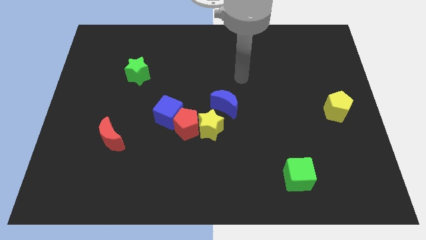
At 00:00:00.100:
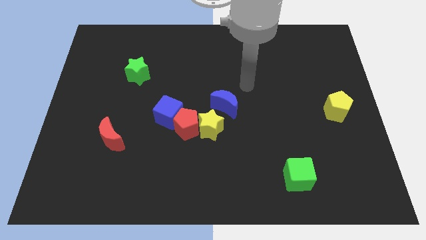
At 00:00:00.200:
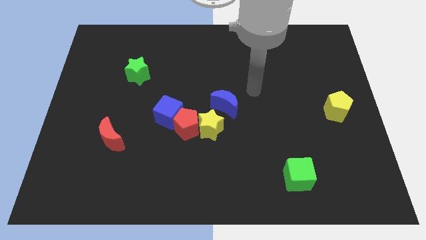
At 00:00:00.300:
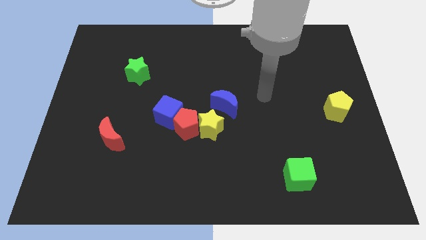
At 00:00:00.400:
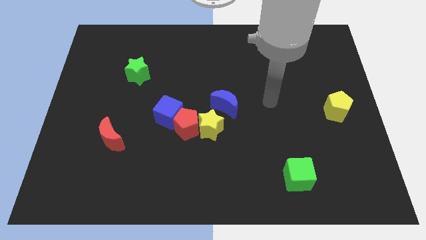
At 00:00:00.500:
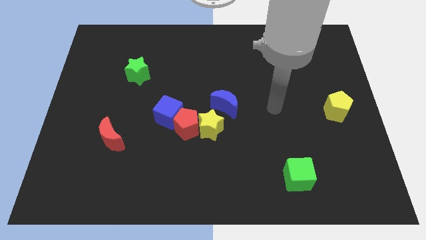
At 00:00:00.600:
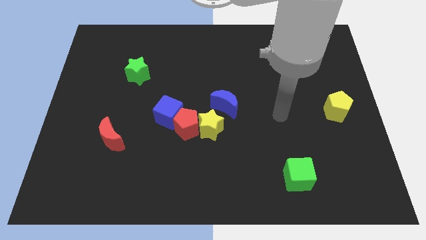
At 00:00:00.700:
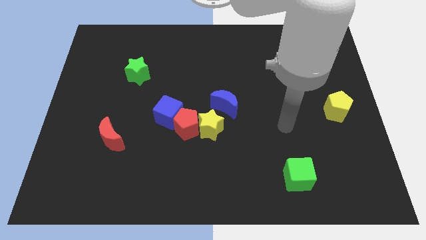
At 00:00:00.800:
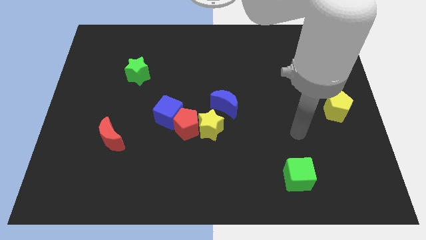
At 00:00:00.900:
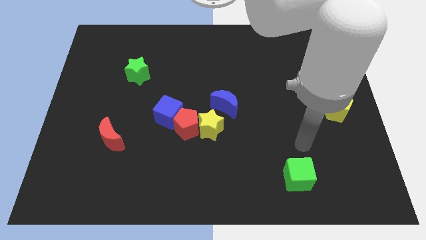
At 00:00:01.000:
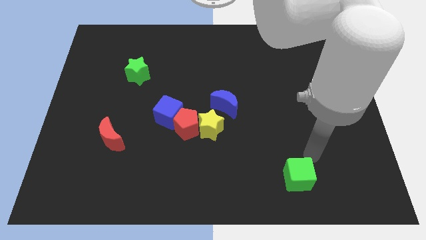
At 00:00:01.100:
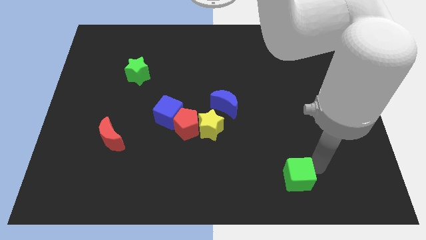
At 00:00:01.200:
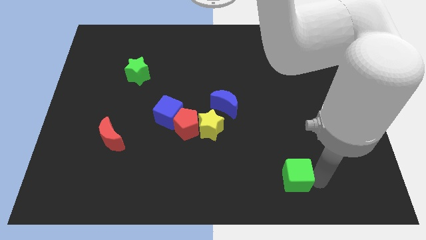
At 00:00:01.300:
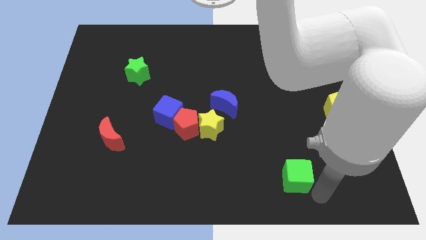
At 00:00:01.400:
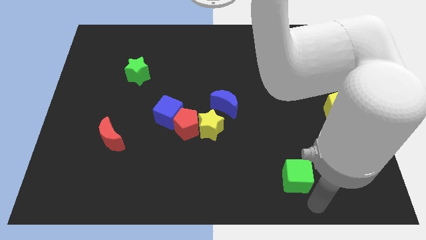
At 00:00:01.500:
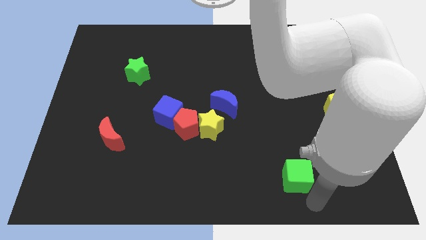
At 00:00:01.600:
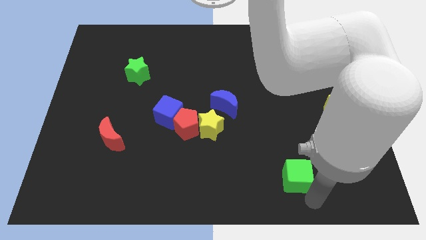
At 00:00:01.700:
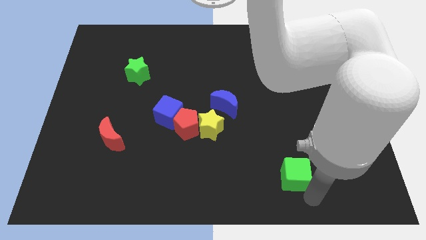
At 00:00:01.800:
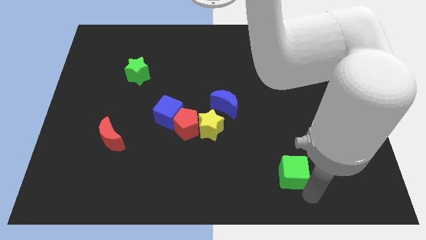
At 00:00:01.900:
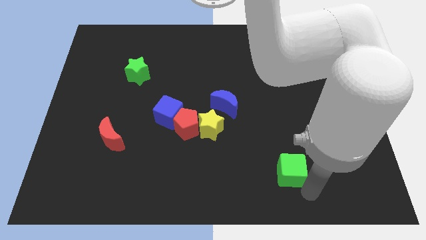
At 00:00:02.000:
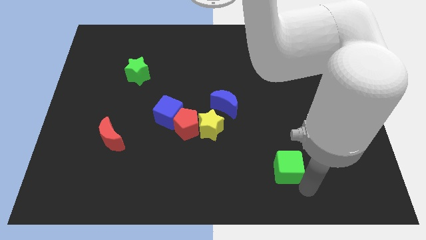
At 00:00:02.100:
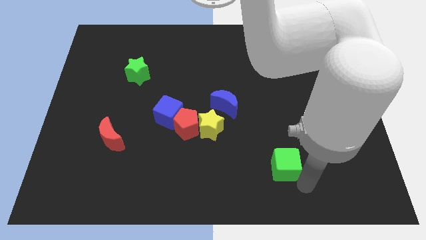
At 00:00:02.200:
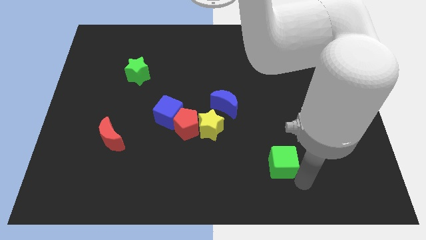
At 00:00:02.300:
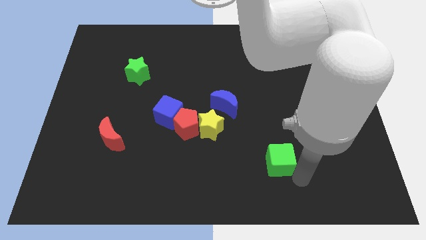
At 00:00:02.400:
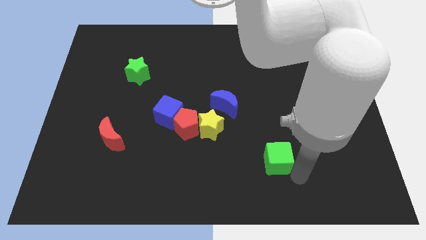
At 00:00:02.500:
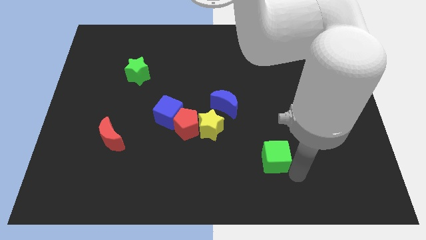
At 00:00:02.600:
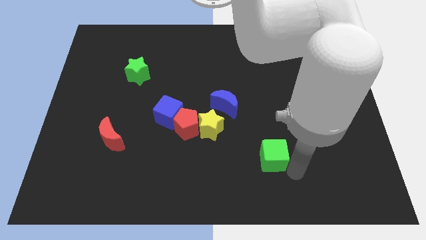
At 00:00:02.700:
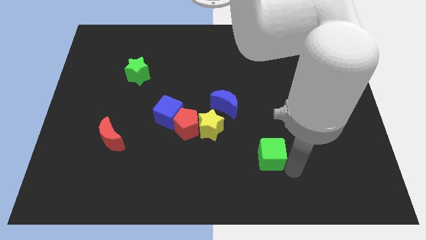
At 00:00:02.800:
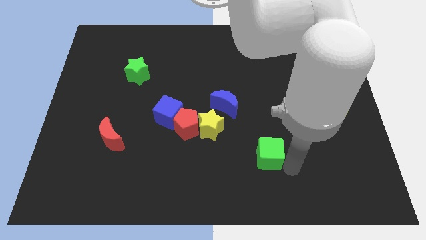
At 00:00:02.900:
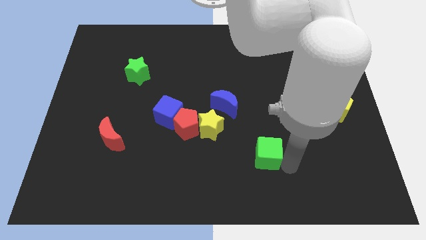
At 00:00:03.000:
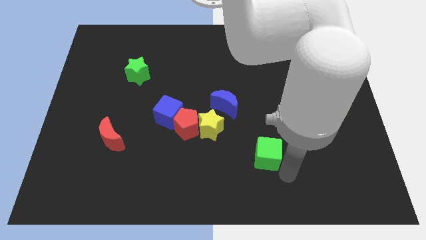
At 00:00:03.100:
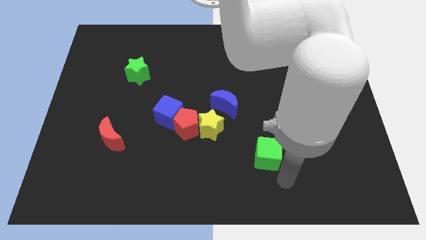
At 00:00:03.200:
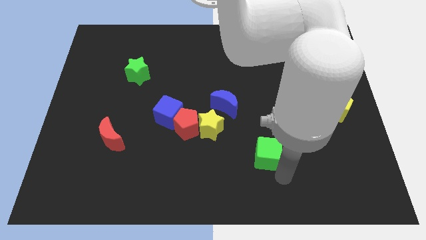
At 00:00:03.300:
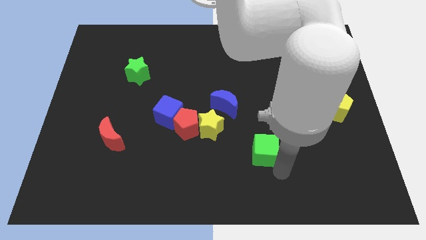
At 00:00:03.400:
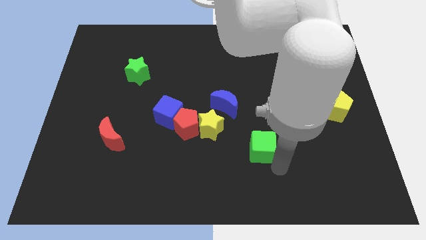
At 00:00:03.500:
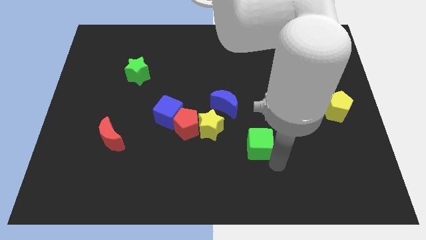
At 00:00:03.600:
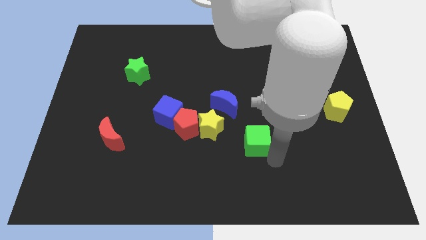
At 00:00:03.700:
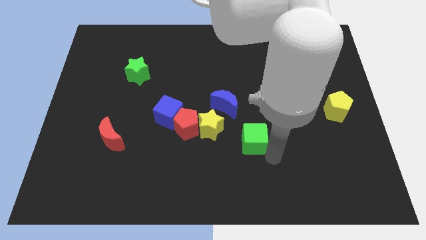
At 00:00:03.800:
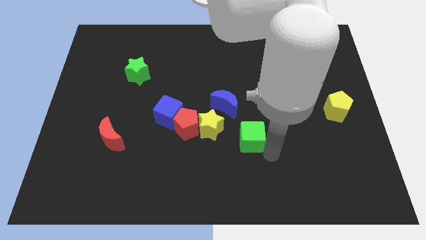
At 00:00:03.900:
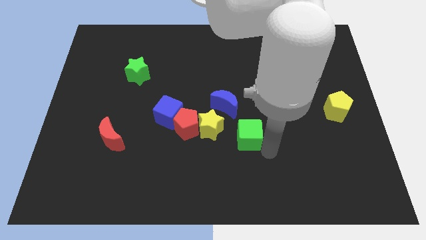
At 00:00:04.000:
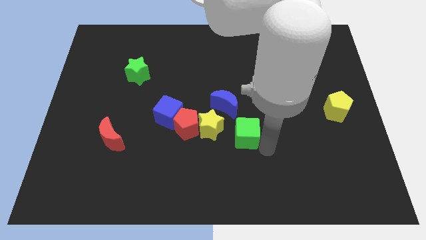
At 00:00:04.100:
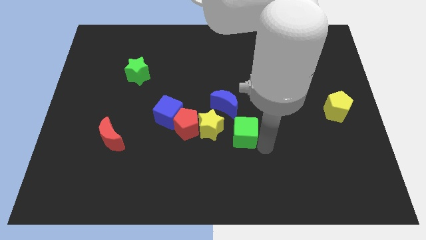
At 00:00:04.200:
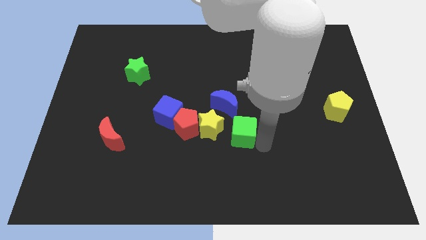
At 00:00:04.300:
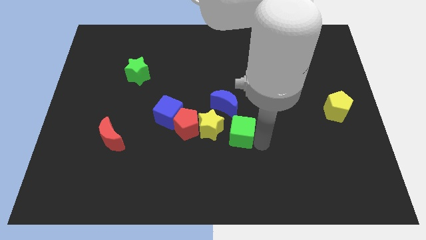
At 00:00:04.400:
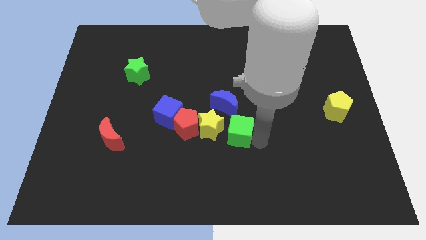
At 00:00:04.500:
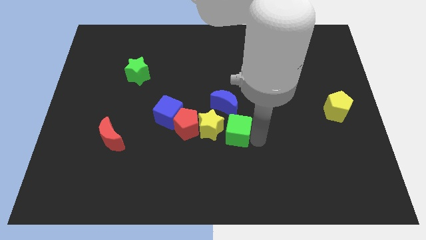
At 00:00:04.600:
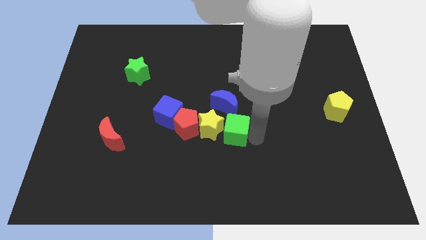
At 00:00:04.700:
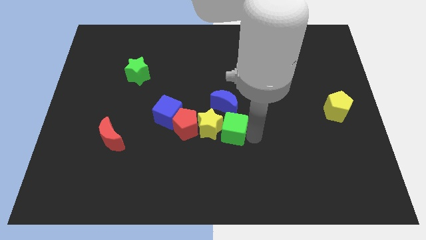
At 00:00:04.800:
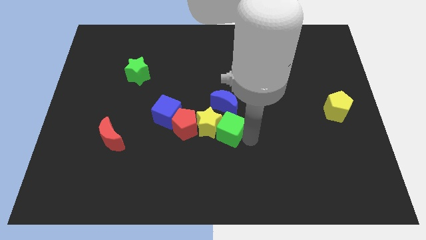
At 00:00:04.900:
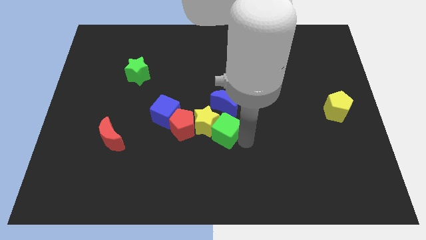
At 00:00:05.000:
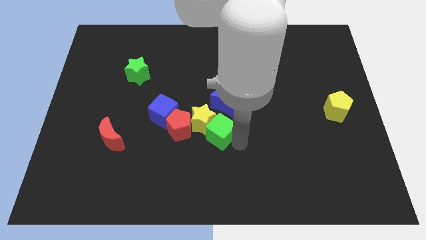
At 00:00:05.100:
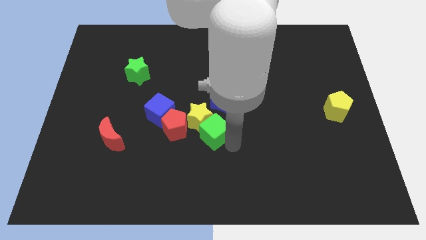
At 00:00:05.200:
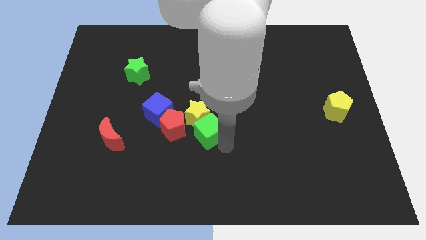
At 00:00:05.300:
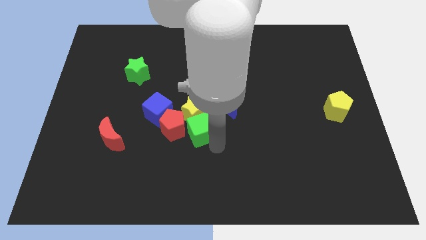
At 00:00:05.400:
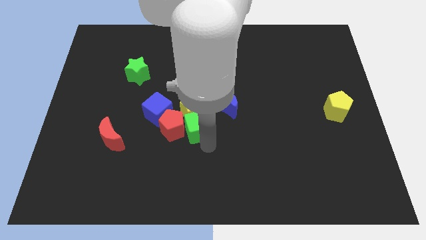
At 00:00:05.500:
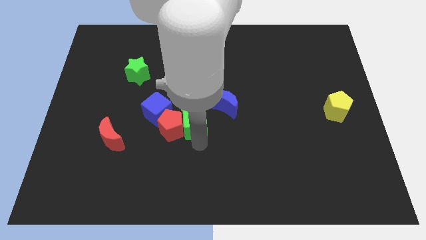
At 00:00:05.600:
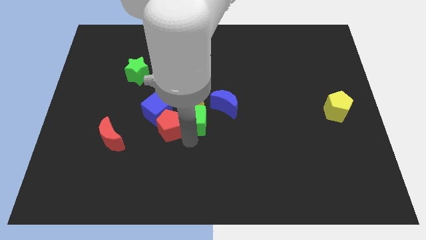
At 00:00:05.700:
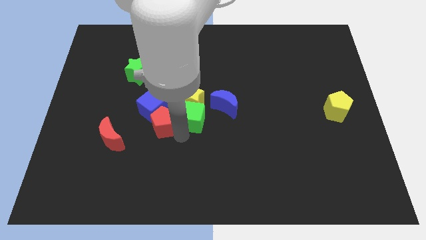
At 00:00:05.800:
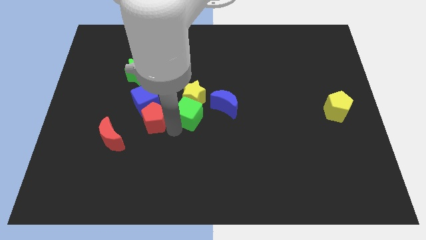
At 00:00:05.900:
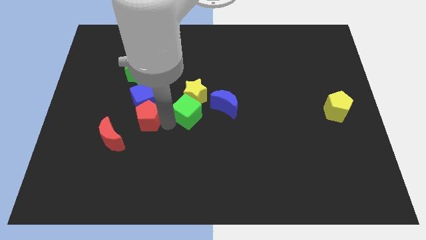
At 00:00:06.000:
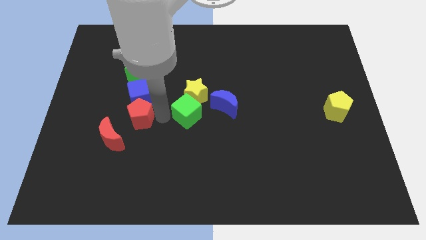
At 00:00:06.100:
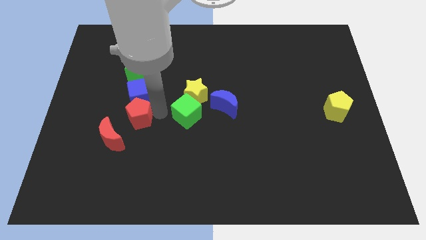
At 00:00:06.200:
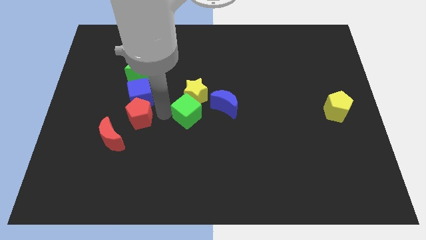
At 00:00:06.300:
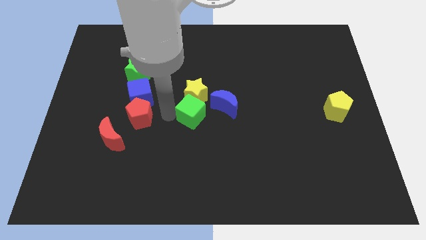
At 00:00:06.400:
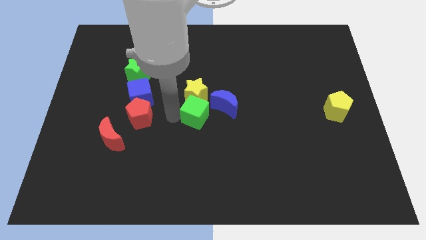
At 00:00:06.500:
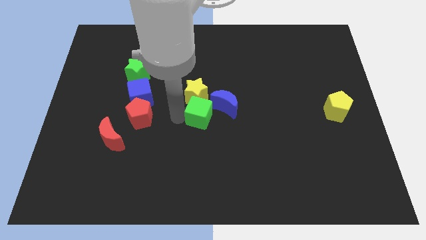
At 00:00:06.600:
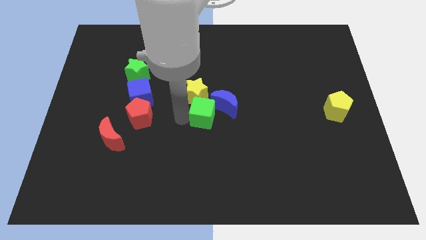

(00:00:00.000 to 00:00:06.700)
slide the green cube close to the blue moon
